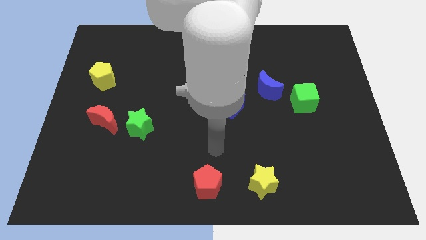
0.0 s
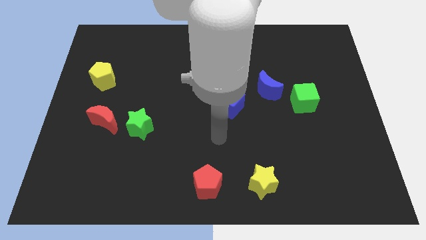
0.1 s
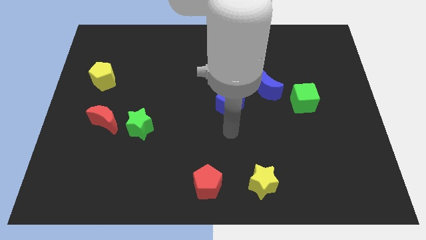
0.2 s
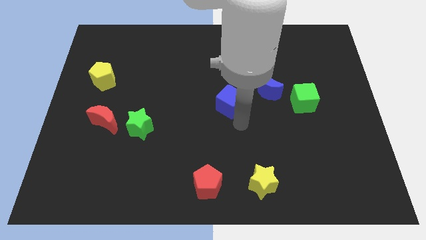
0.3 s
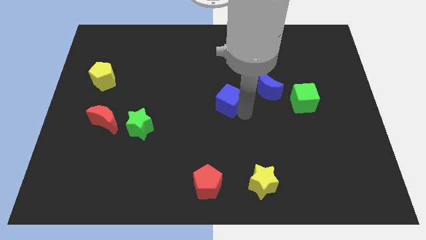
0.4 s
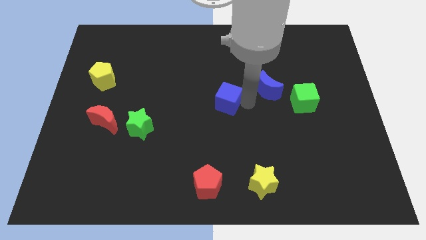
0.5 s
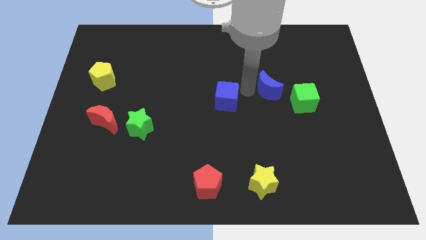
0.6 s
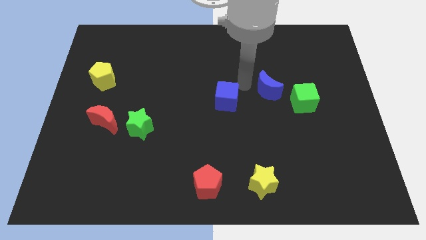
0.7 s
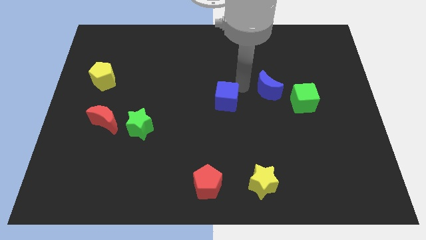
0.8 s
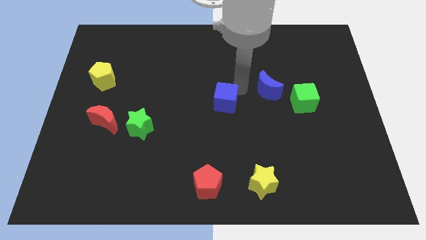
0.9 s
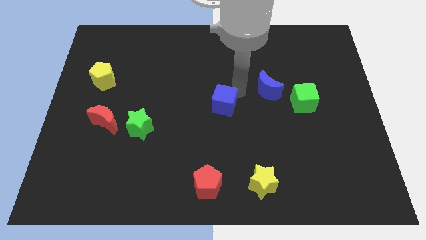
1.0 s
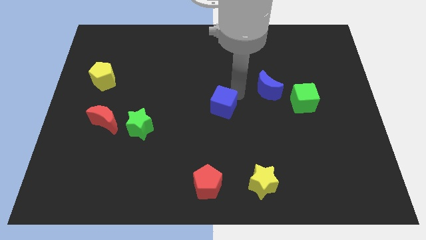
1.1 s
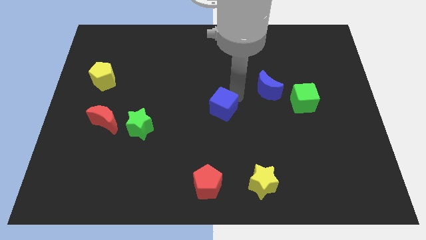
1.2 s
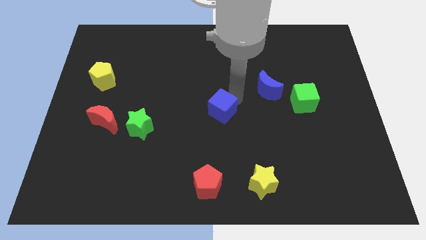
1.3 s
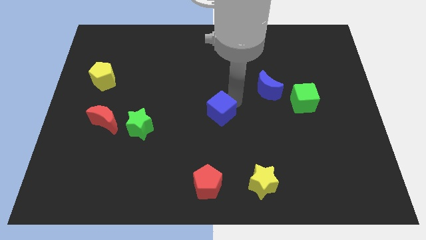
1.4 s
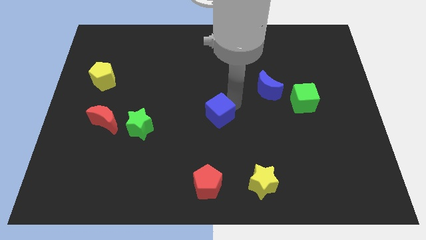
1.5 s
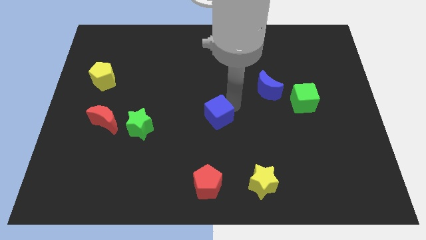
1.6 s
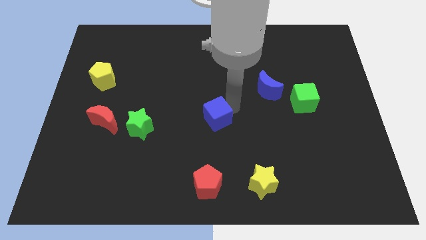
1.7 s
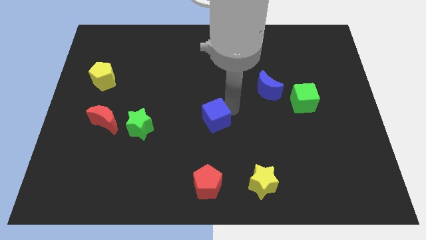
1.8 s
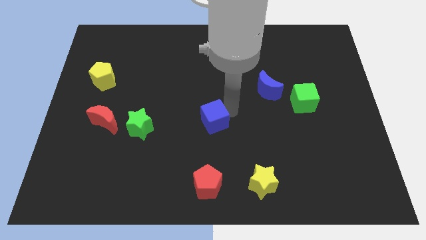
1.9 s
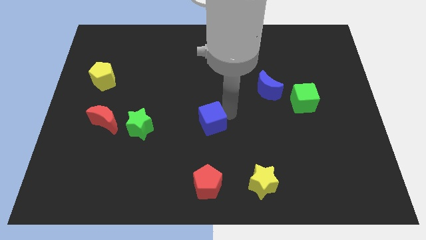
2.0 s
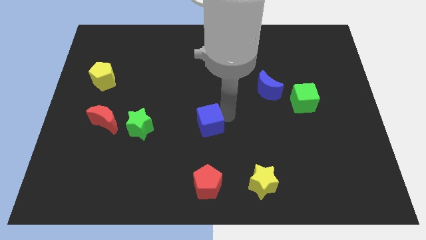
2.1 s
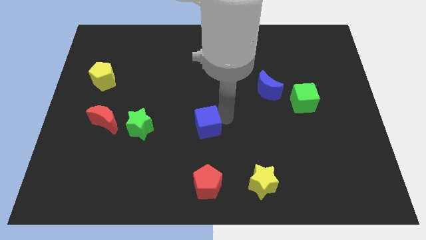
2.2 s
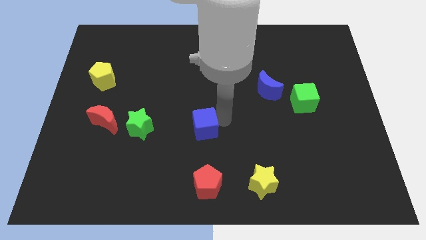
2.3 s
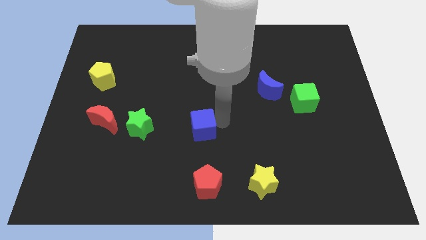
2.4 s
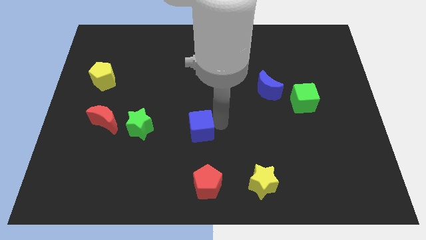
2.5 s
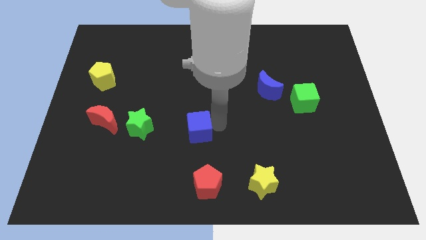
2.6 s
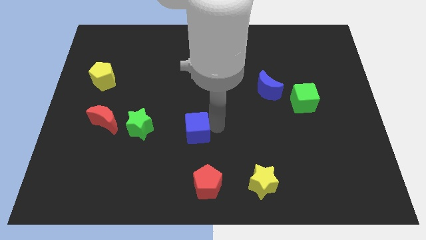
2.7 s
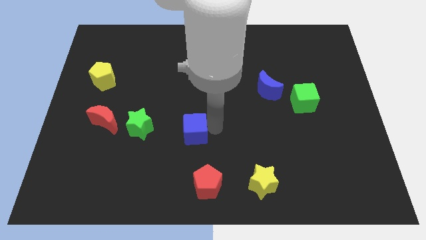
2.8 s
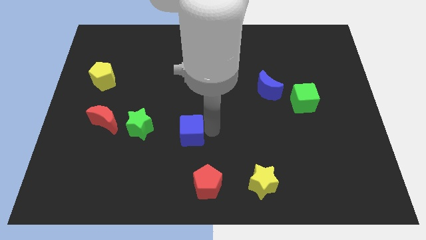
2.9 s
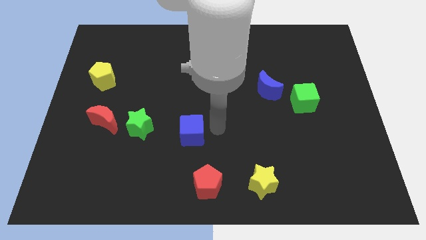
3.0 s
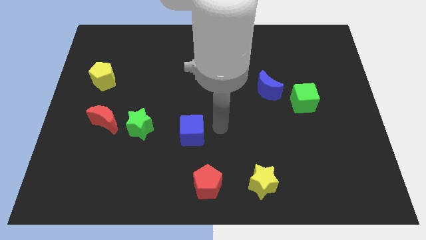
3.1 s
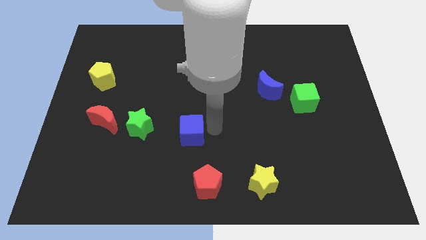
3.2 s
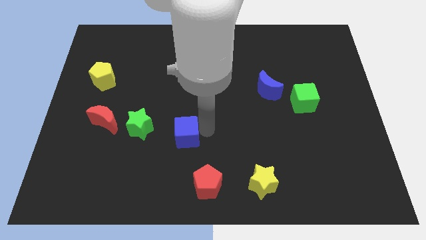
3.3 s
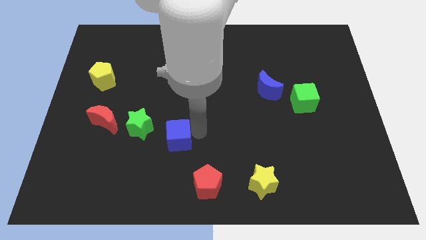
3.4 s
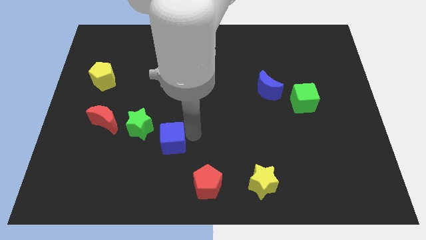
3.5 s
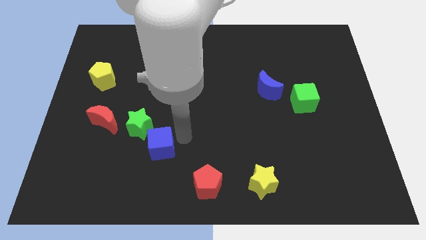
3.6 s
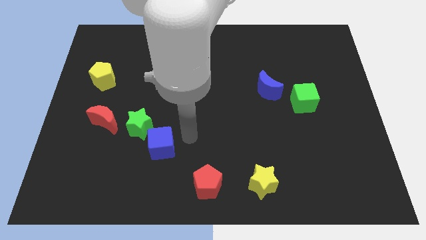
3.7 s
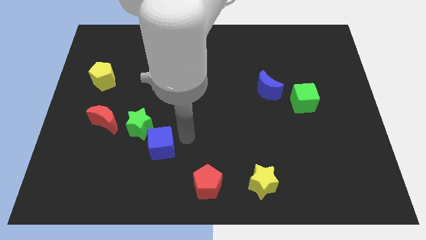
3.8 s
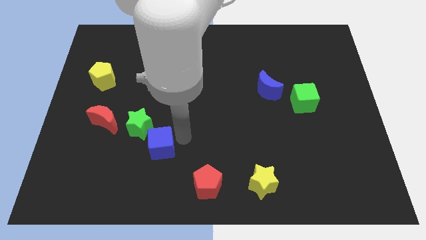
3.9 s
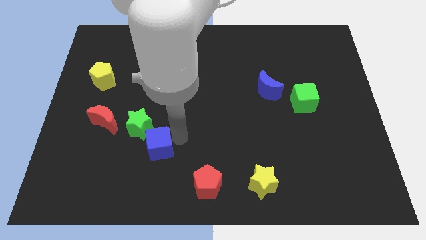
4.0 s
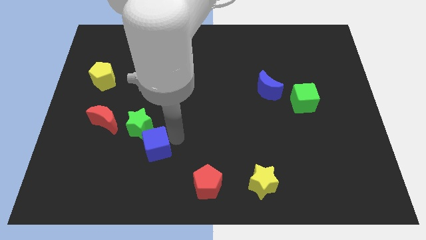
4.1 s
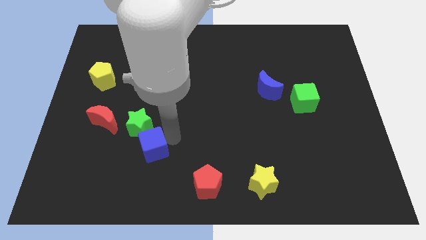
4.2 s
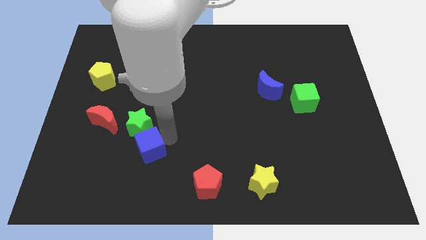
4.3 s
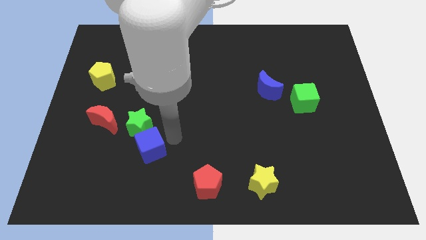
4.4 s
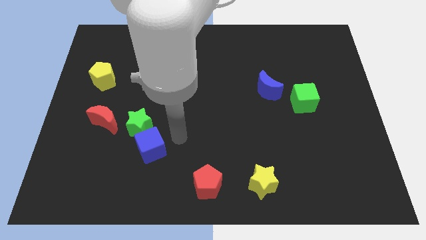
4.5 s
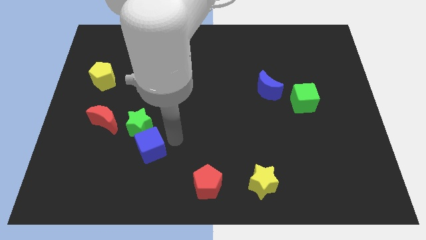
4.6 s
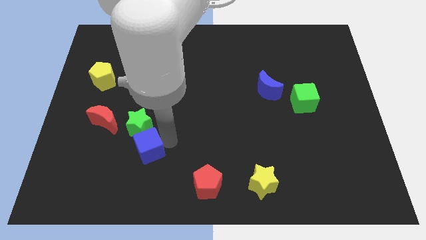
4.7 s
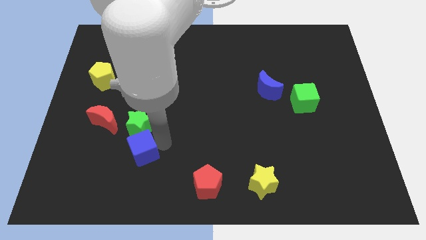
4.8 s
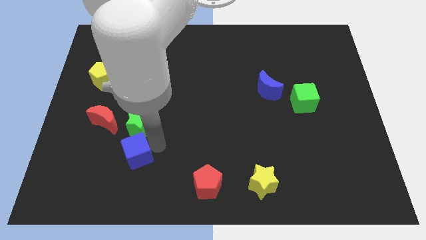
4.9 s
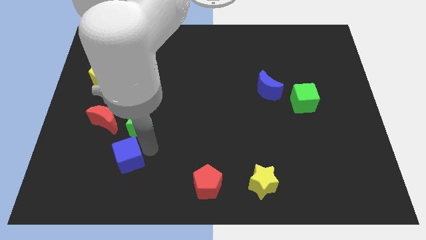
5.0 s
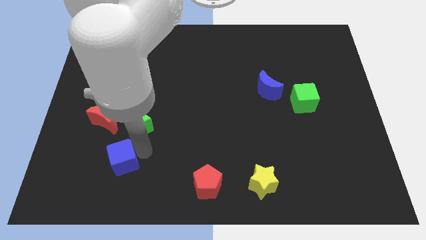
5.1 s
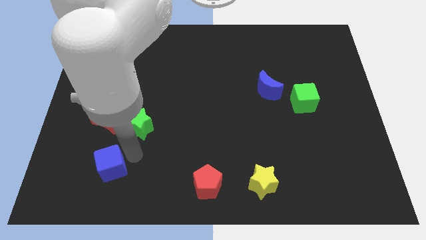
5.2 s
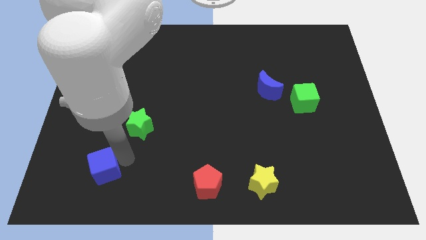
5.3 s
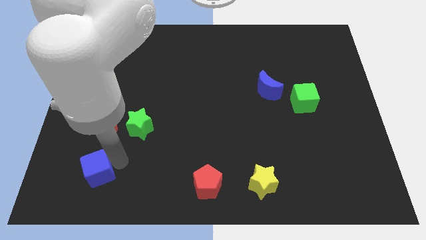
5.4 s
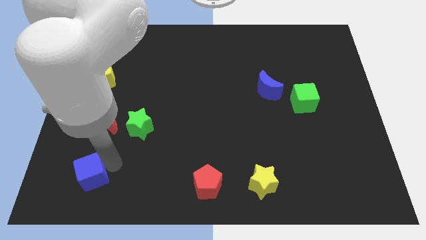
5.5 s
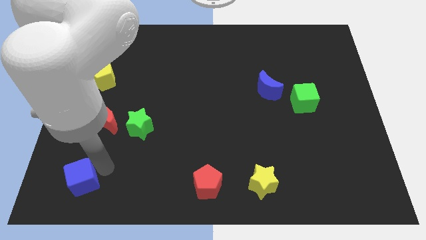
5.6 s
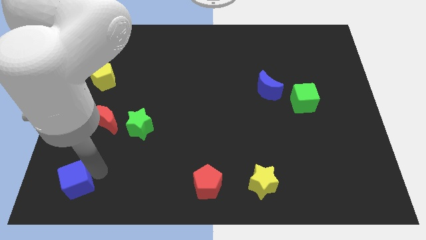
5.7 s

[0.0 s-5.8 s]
put the blue cube to the bottom left
